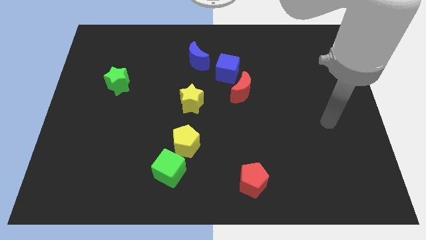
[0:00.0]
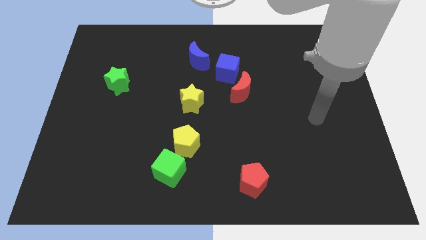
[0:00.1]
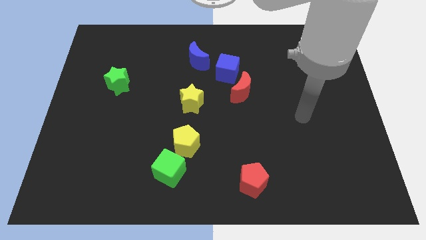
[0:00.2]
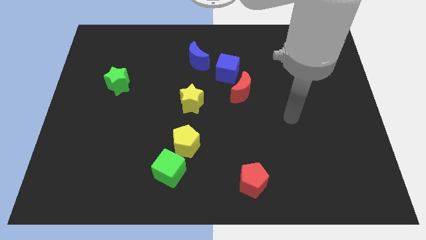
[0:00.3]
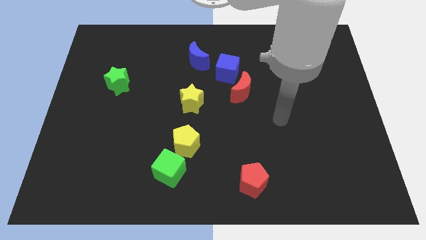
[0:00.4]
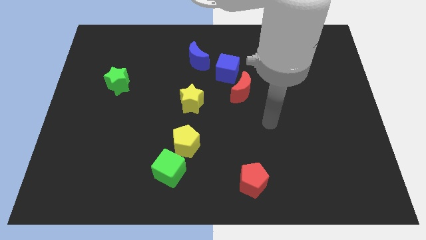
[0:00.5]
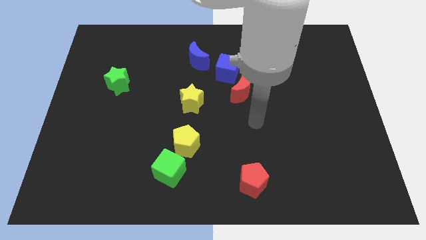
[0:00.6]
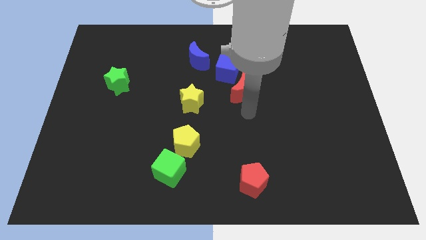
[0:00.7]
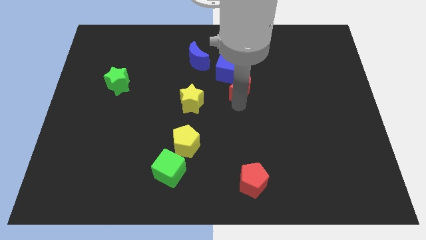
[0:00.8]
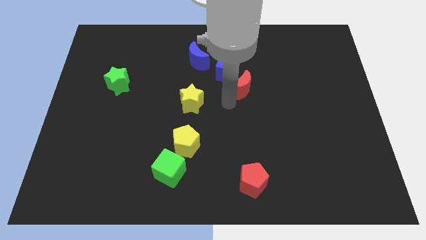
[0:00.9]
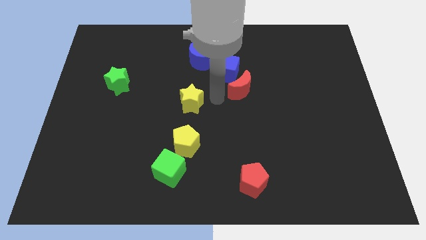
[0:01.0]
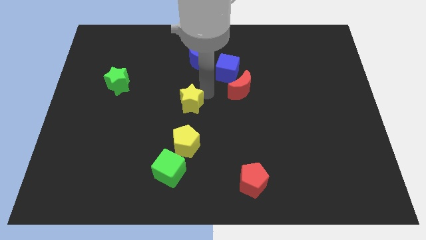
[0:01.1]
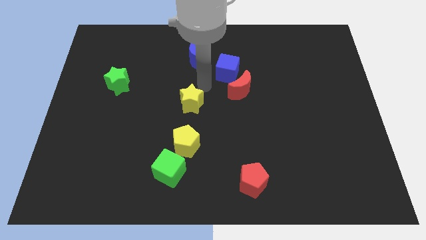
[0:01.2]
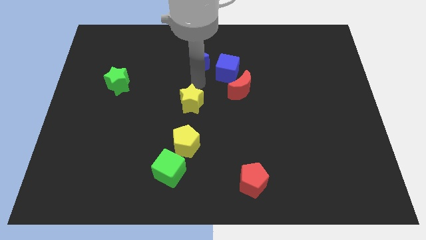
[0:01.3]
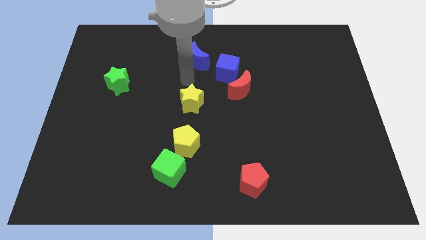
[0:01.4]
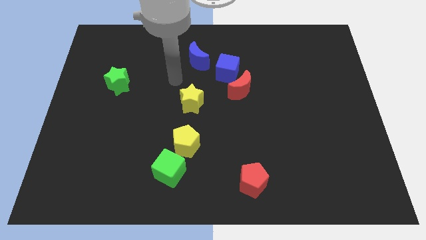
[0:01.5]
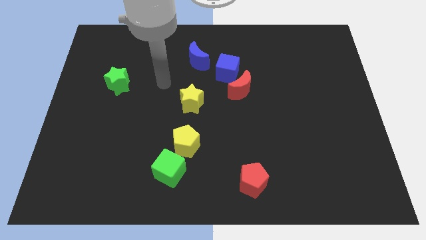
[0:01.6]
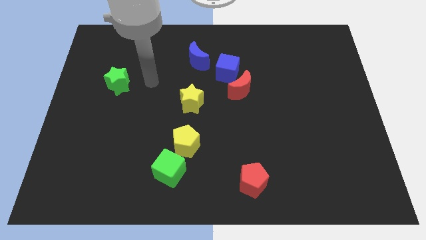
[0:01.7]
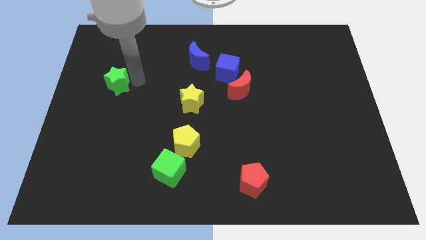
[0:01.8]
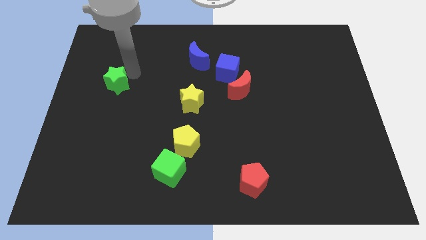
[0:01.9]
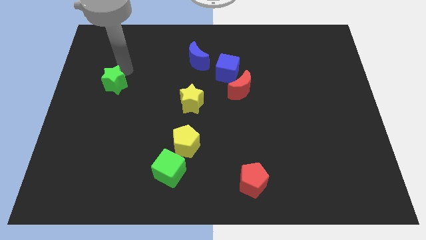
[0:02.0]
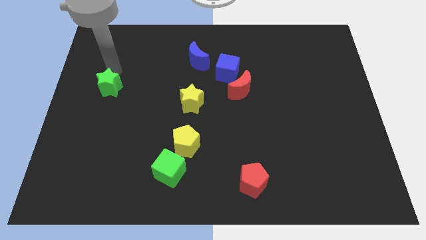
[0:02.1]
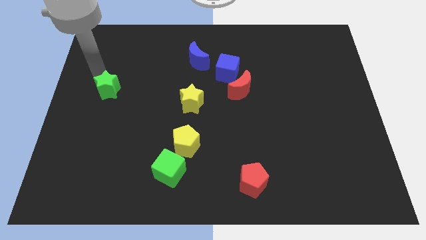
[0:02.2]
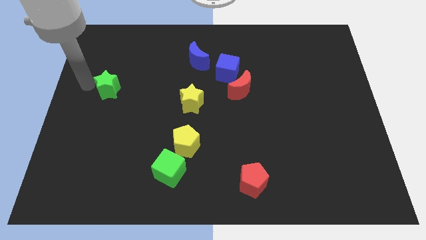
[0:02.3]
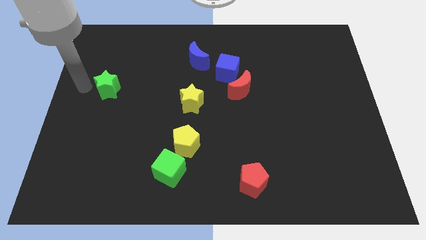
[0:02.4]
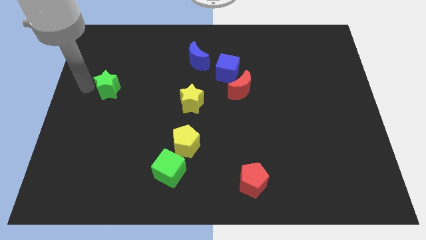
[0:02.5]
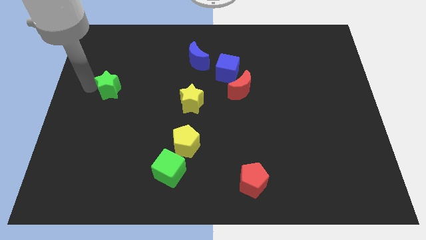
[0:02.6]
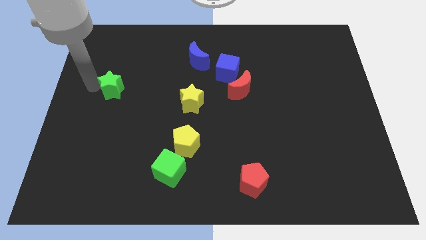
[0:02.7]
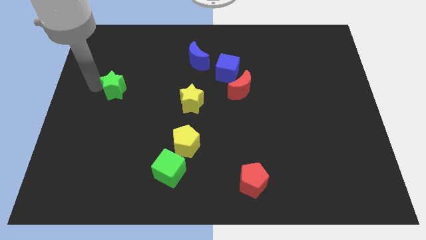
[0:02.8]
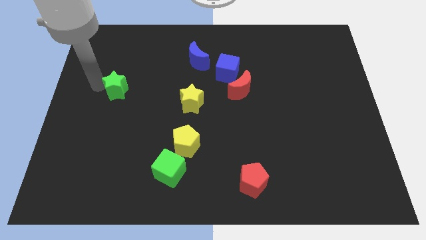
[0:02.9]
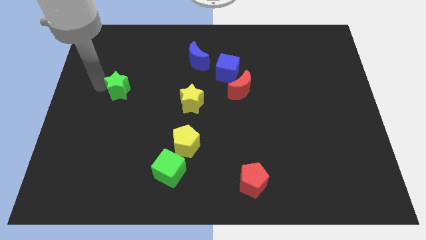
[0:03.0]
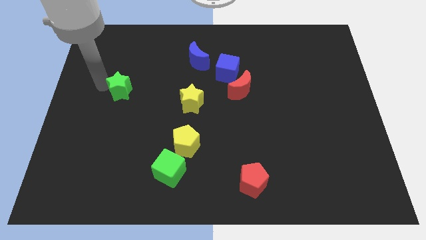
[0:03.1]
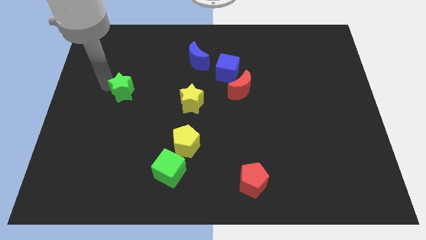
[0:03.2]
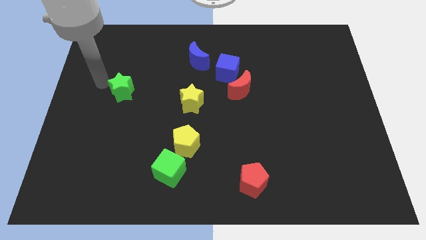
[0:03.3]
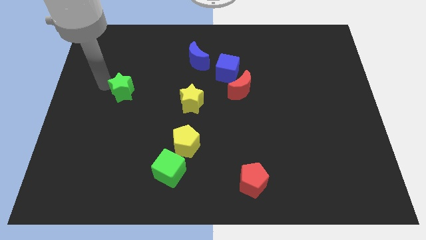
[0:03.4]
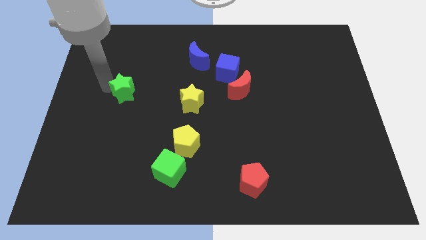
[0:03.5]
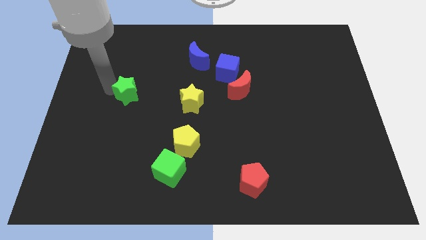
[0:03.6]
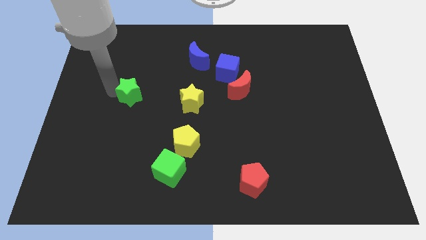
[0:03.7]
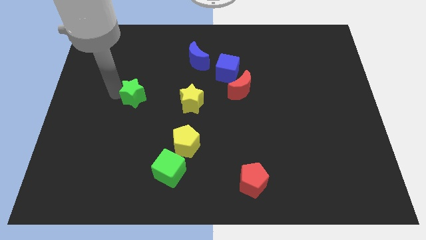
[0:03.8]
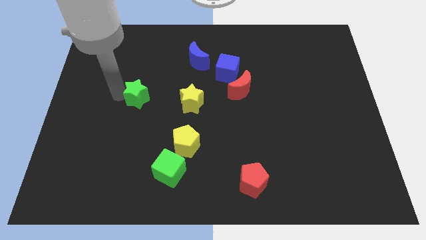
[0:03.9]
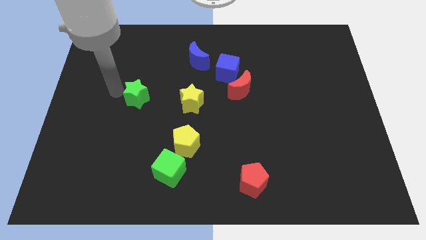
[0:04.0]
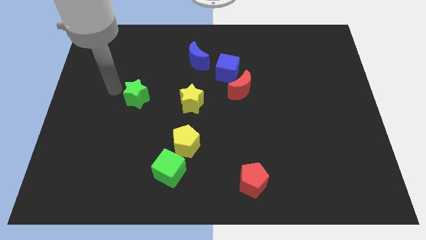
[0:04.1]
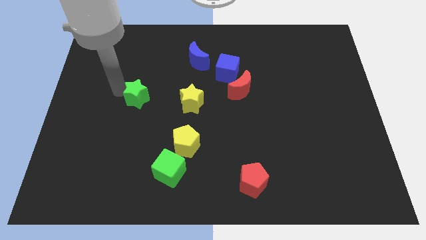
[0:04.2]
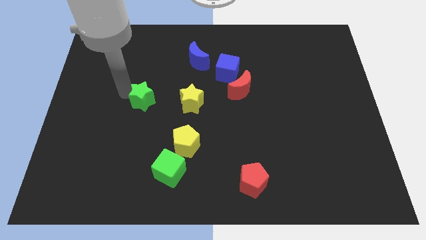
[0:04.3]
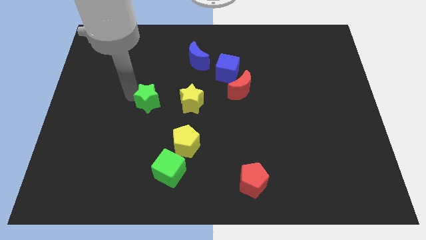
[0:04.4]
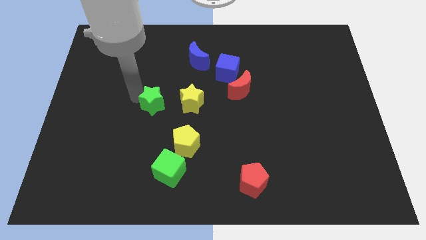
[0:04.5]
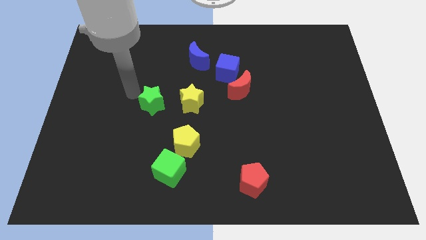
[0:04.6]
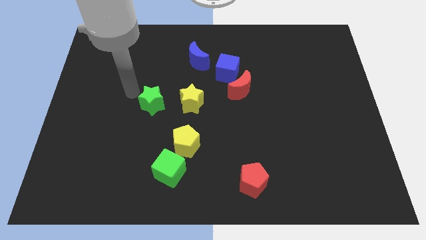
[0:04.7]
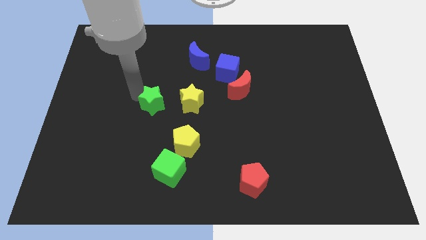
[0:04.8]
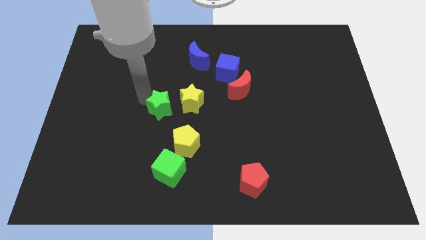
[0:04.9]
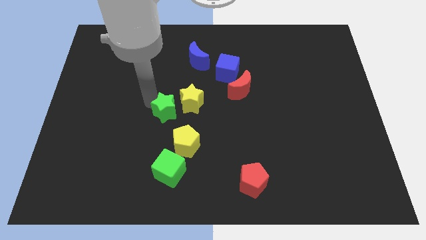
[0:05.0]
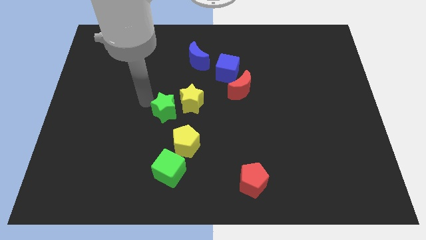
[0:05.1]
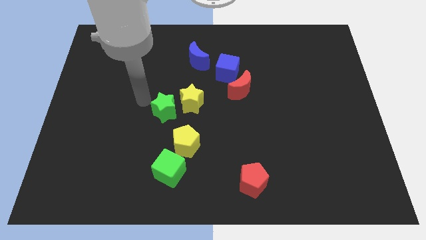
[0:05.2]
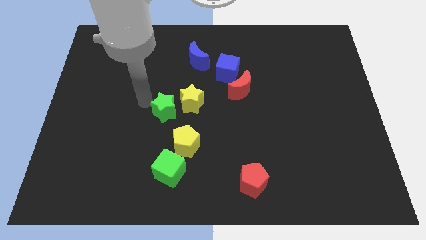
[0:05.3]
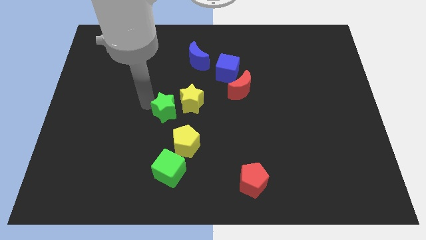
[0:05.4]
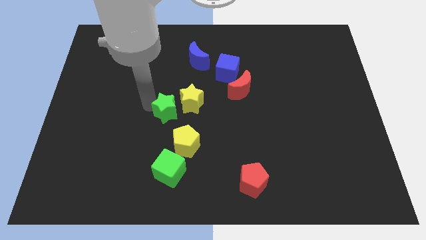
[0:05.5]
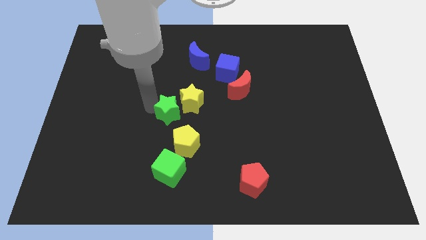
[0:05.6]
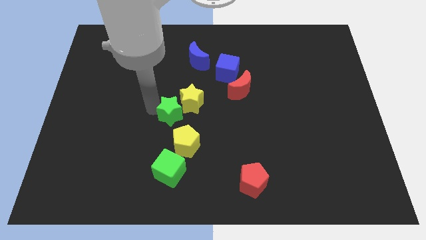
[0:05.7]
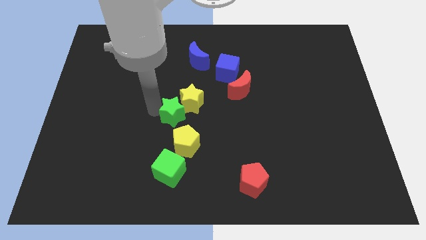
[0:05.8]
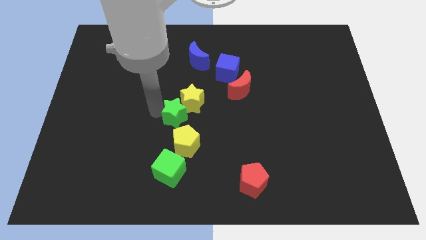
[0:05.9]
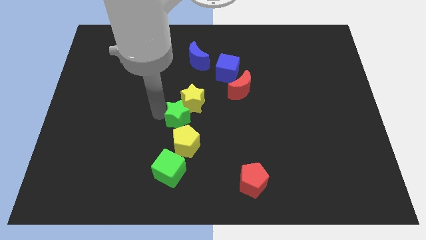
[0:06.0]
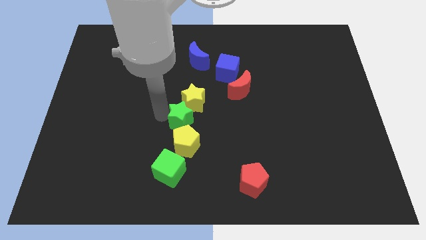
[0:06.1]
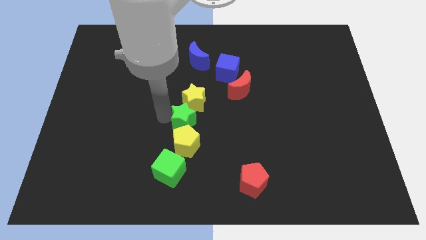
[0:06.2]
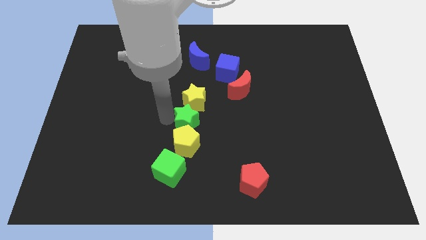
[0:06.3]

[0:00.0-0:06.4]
push the green star to the top right of the yellow pentagon

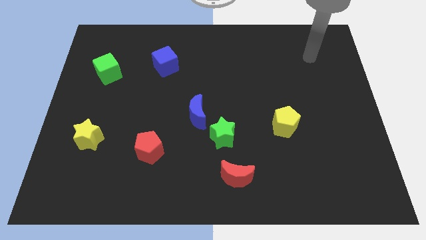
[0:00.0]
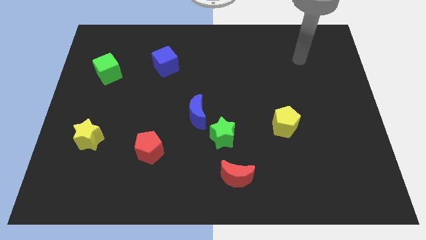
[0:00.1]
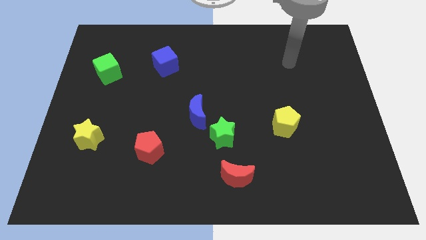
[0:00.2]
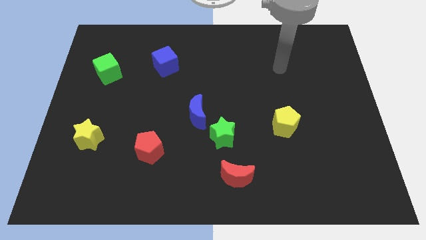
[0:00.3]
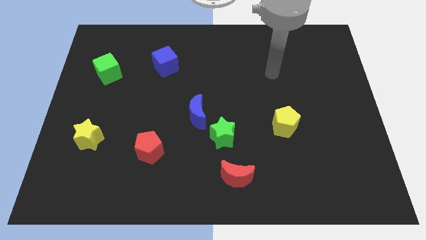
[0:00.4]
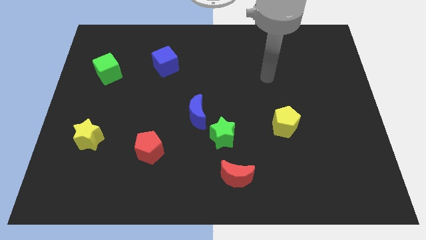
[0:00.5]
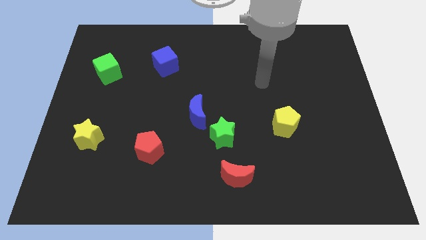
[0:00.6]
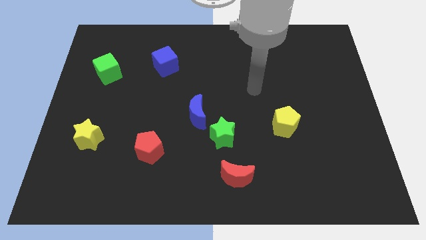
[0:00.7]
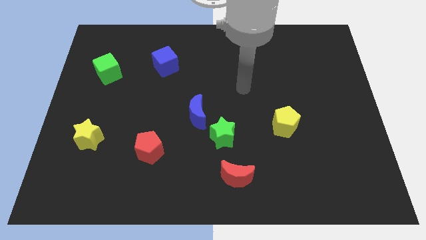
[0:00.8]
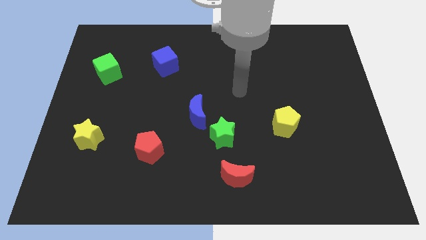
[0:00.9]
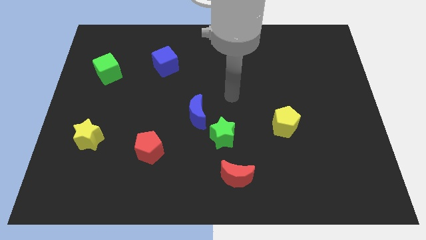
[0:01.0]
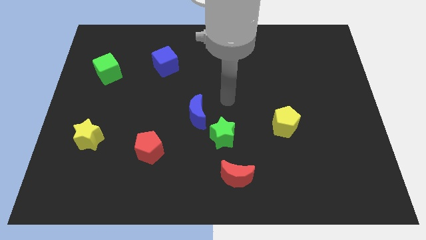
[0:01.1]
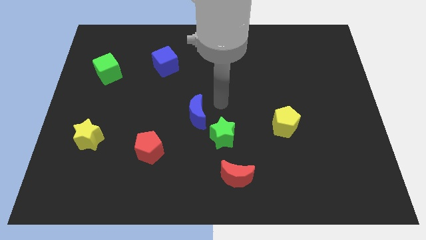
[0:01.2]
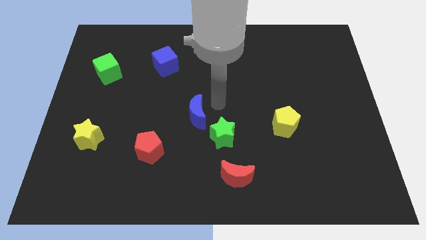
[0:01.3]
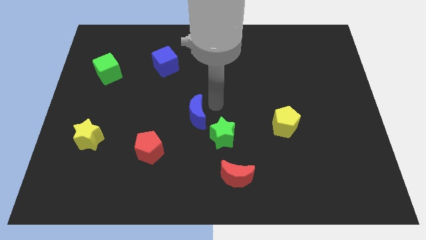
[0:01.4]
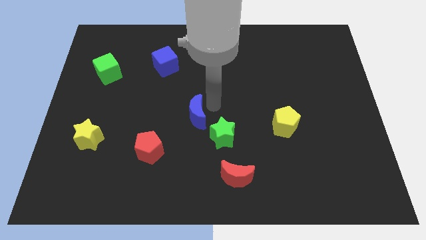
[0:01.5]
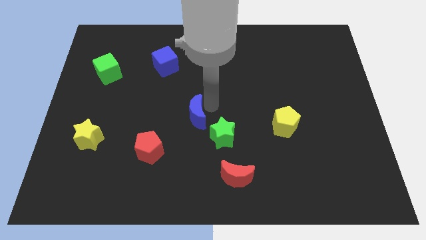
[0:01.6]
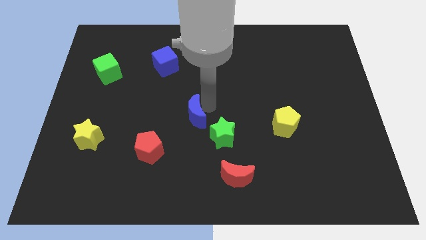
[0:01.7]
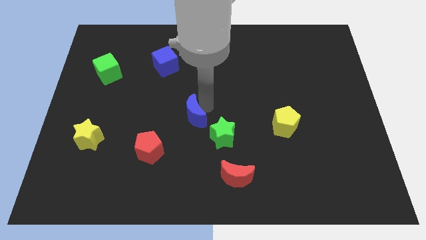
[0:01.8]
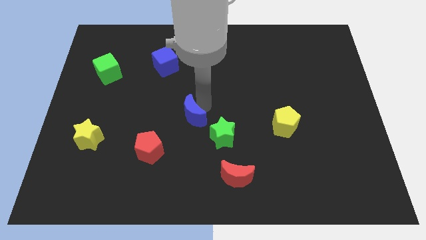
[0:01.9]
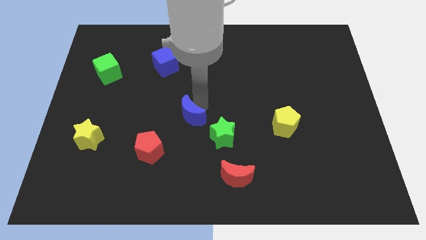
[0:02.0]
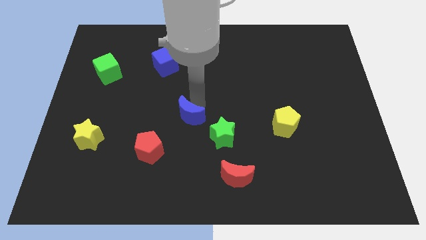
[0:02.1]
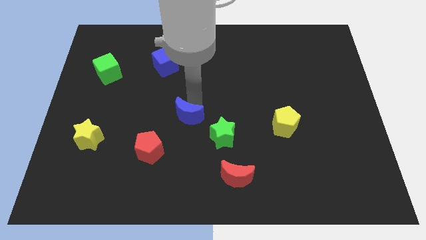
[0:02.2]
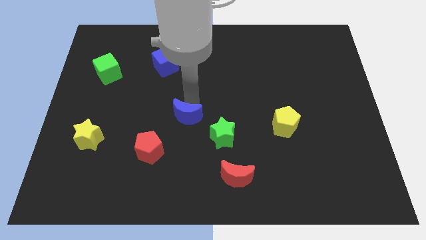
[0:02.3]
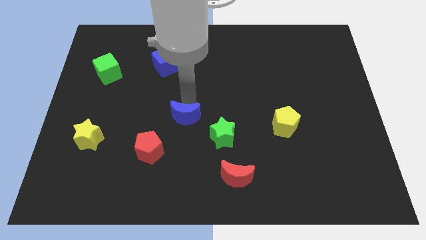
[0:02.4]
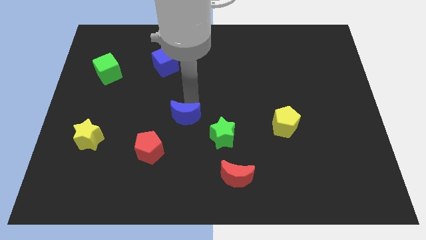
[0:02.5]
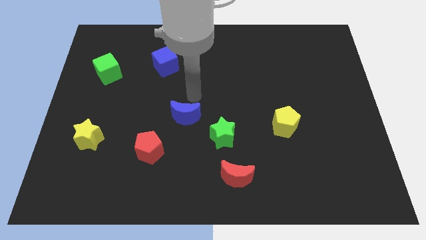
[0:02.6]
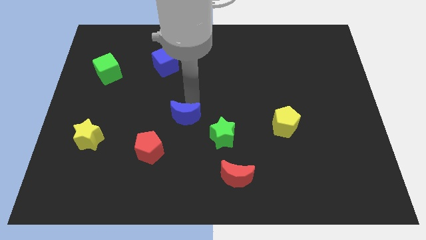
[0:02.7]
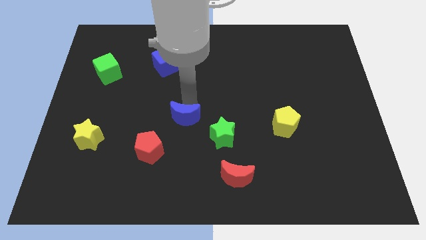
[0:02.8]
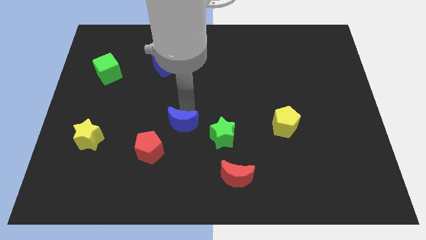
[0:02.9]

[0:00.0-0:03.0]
put the blue moon to the left side of the green star
